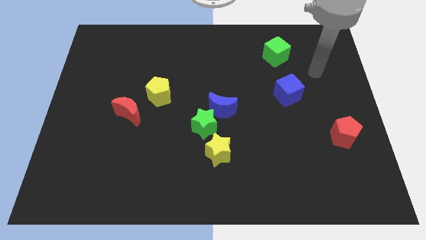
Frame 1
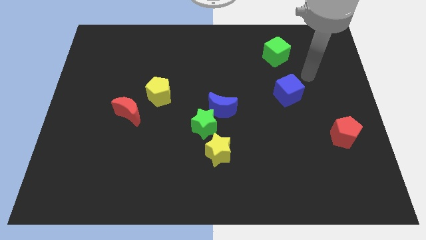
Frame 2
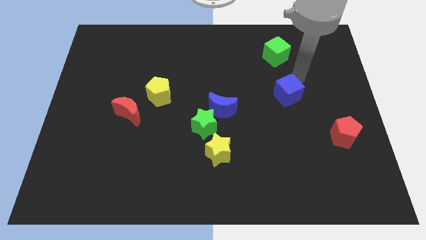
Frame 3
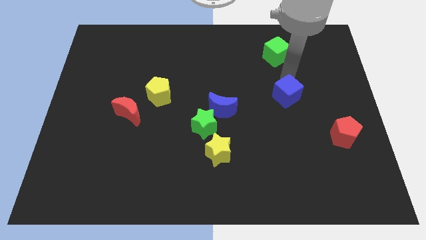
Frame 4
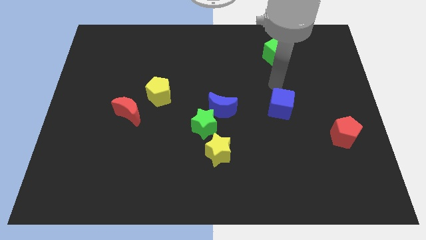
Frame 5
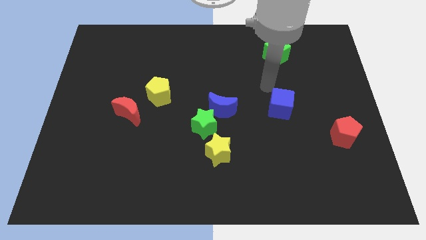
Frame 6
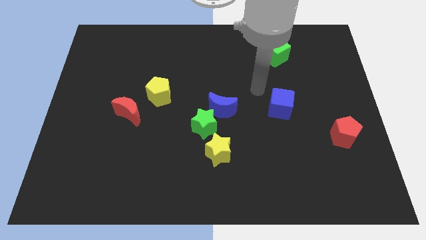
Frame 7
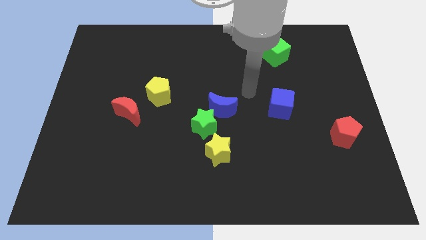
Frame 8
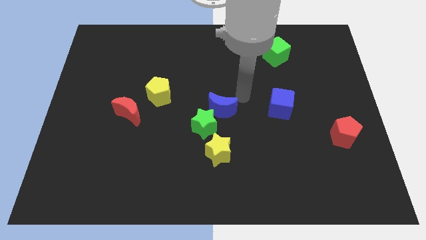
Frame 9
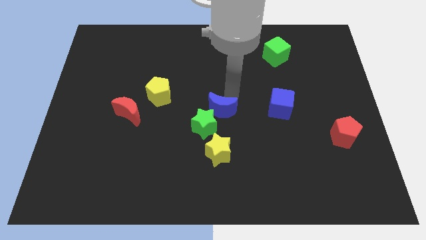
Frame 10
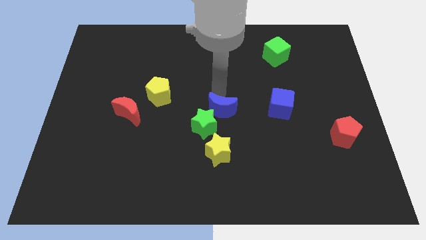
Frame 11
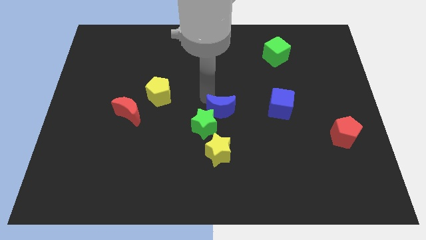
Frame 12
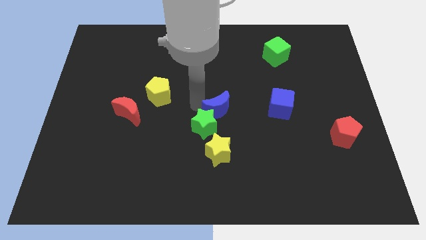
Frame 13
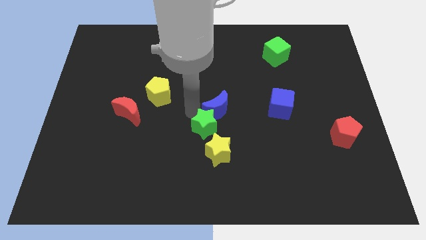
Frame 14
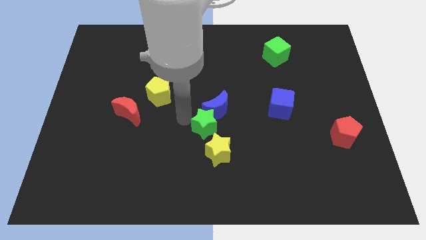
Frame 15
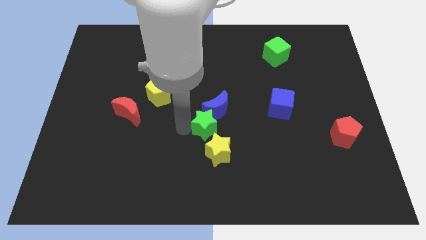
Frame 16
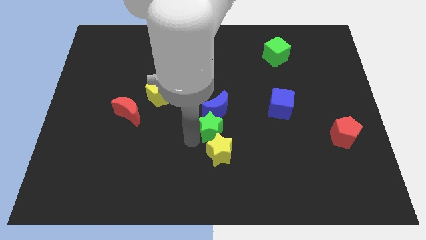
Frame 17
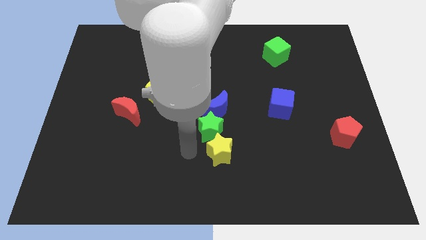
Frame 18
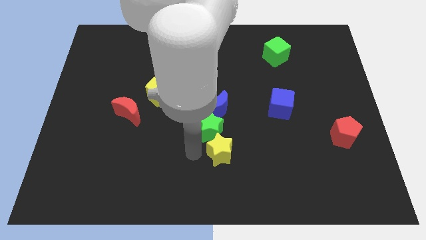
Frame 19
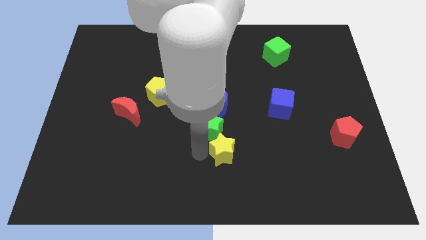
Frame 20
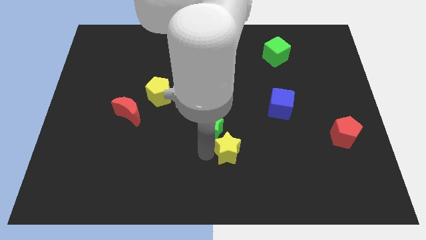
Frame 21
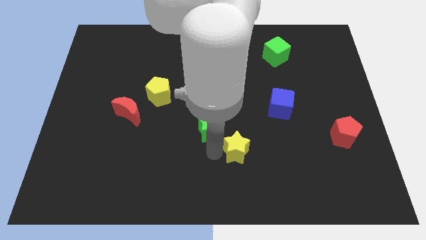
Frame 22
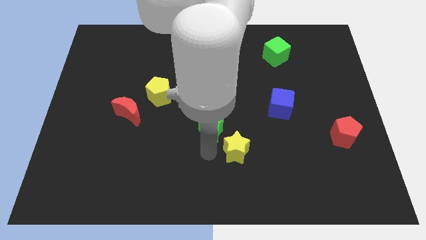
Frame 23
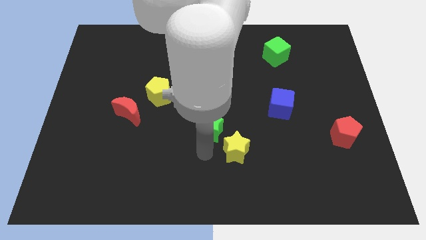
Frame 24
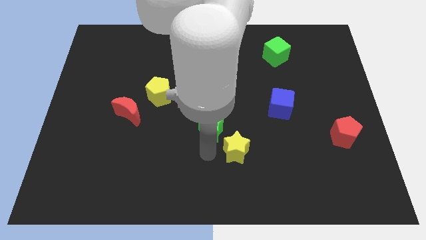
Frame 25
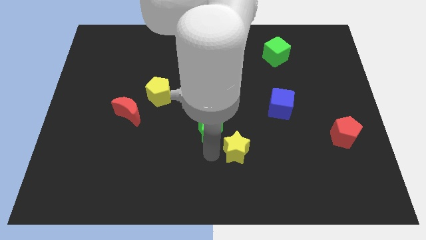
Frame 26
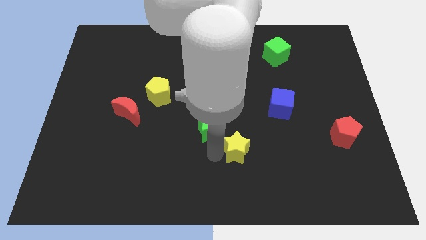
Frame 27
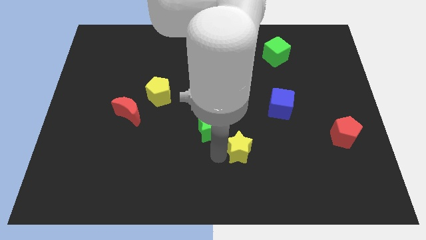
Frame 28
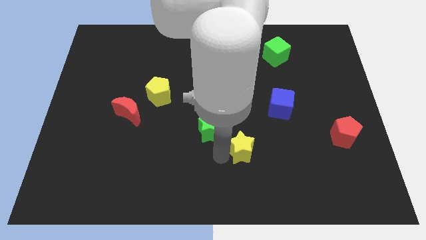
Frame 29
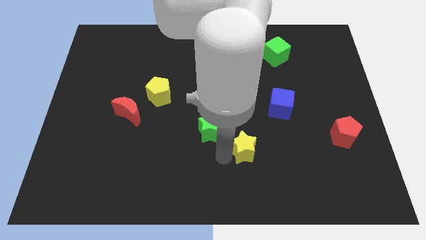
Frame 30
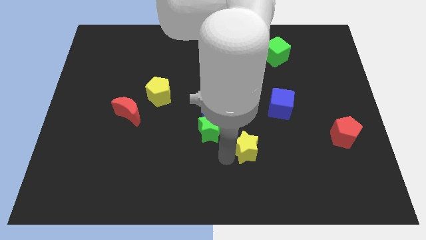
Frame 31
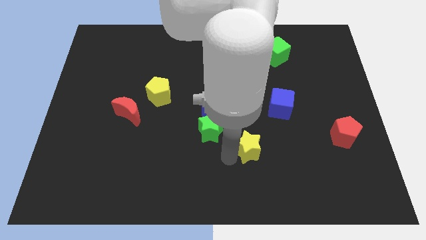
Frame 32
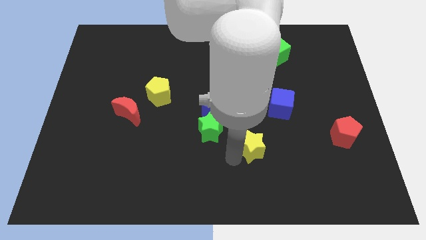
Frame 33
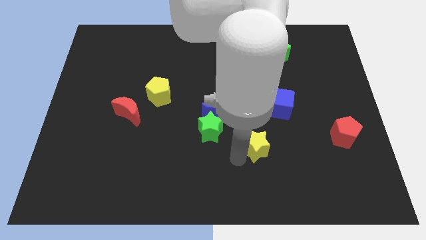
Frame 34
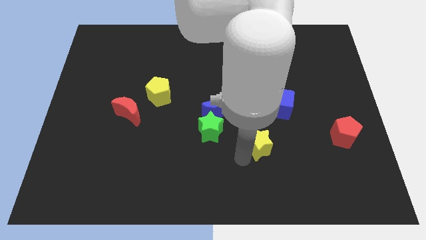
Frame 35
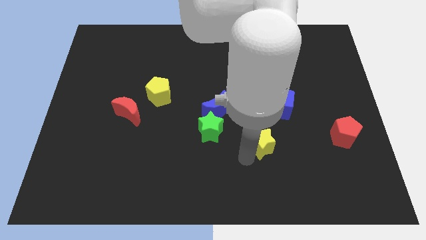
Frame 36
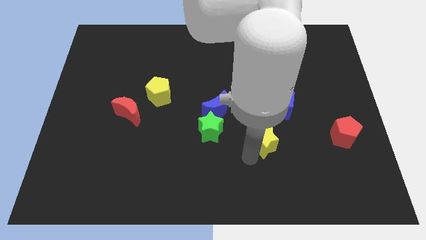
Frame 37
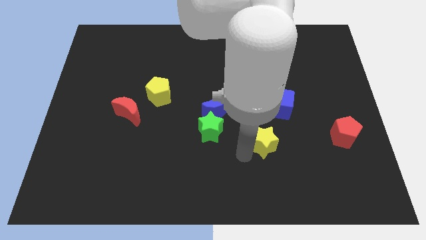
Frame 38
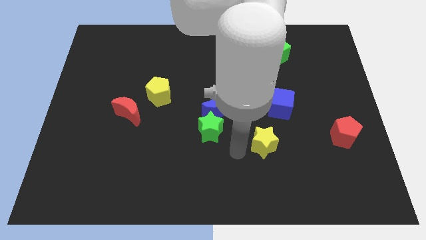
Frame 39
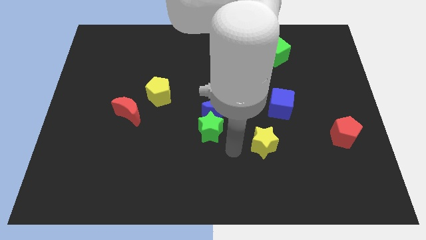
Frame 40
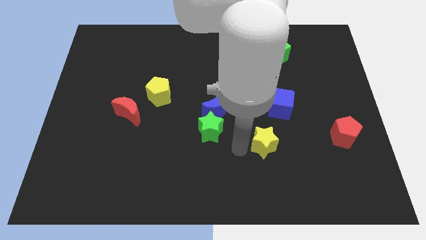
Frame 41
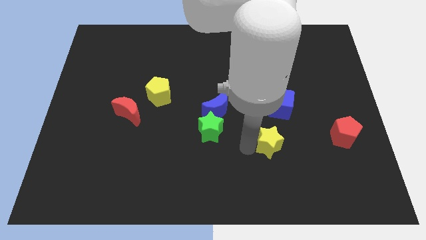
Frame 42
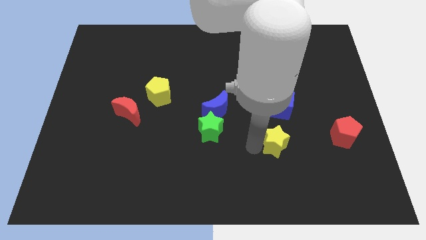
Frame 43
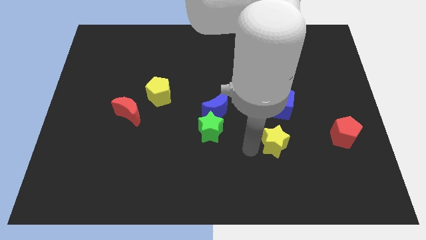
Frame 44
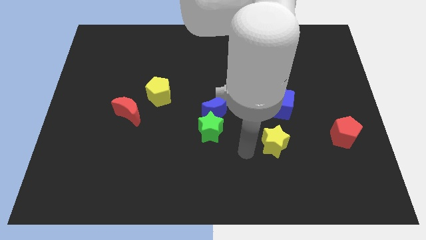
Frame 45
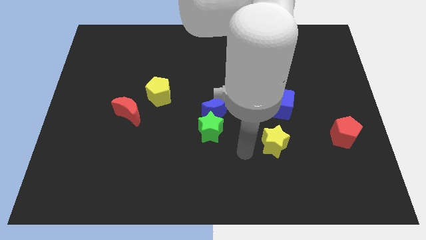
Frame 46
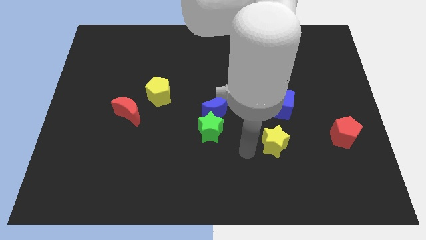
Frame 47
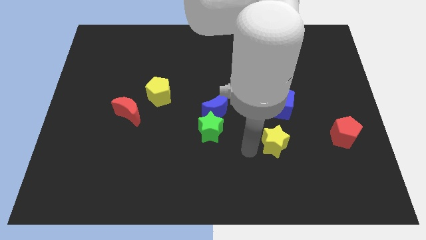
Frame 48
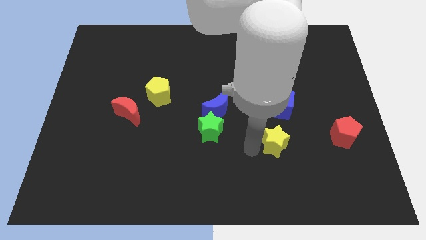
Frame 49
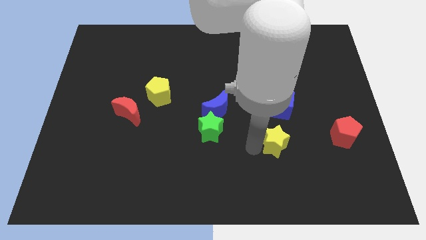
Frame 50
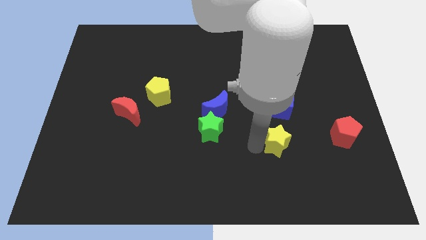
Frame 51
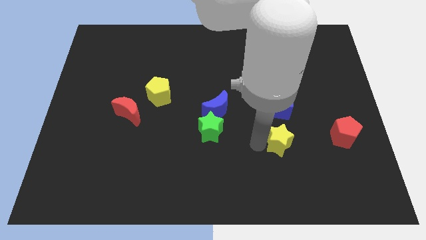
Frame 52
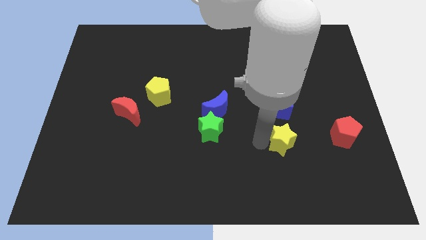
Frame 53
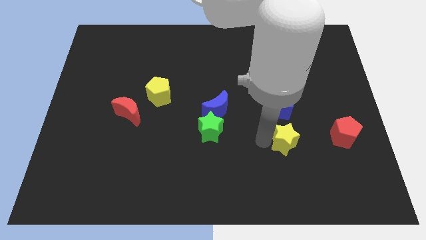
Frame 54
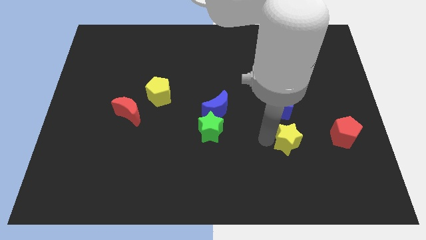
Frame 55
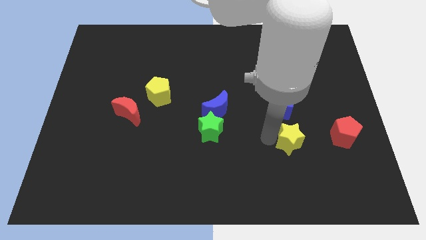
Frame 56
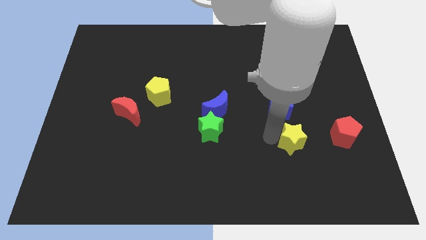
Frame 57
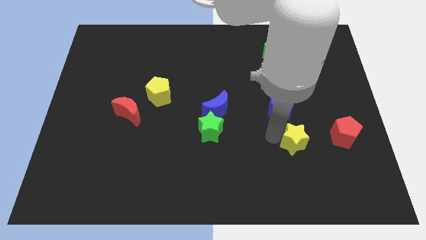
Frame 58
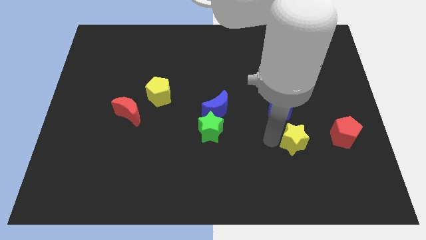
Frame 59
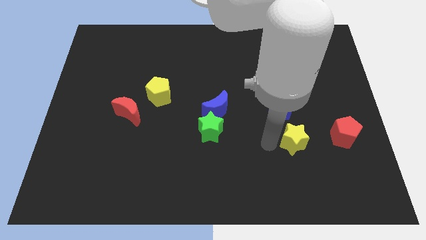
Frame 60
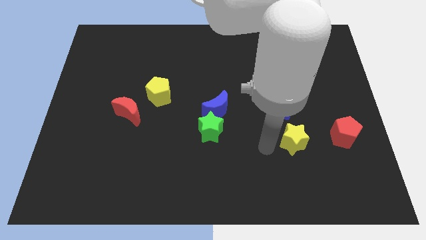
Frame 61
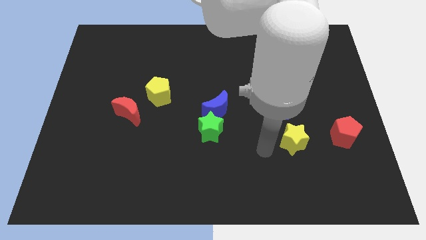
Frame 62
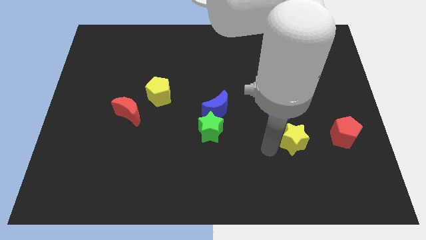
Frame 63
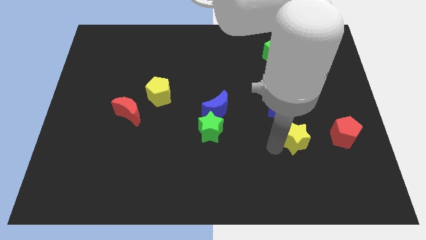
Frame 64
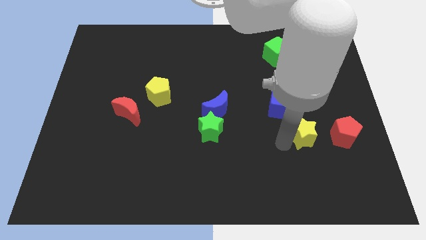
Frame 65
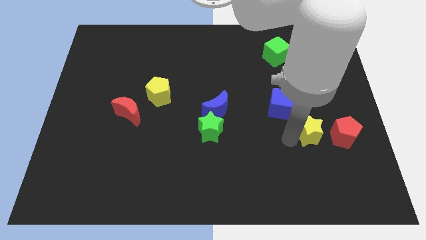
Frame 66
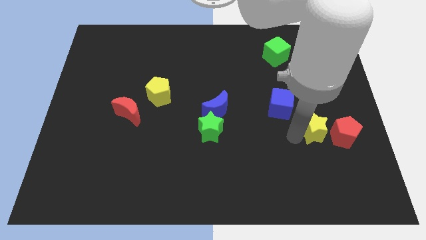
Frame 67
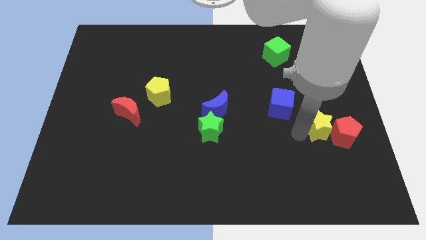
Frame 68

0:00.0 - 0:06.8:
move the yellow star to the red pentagon
